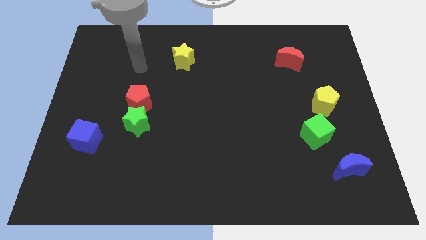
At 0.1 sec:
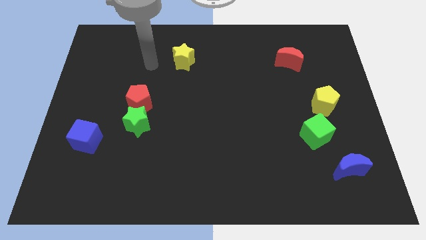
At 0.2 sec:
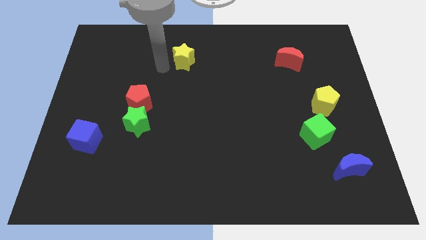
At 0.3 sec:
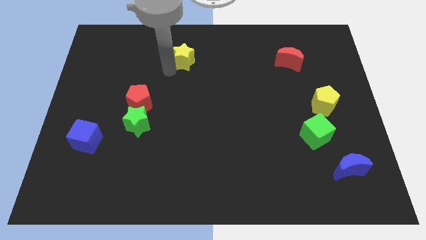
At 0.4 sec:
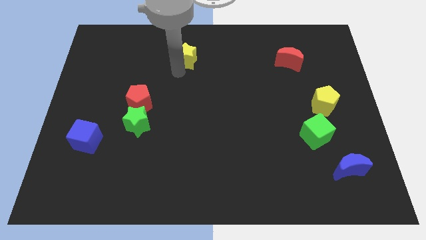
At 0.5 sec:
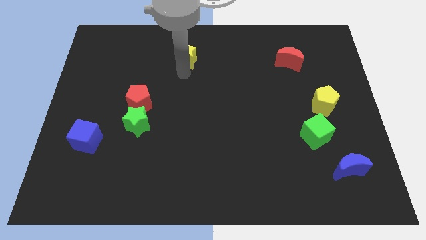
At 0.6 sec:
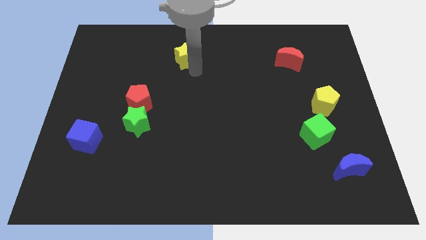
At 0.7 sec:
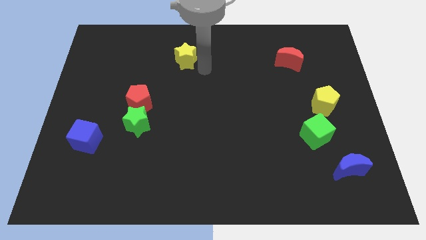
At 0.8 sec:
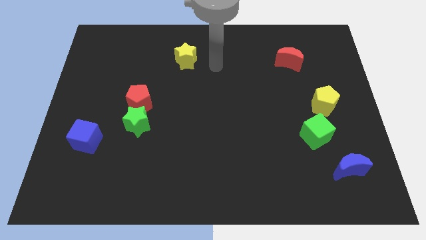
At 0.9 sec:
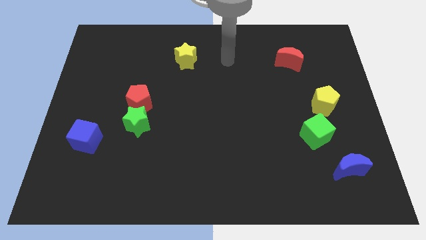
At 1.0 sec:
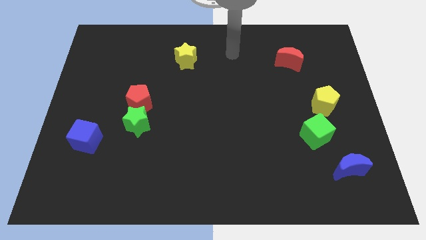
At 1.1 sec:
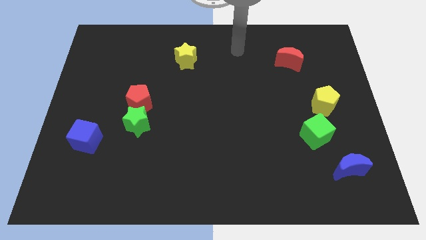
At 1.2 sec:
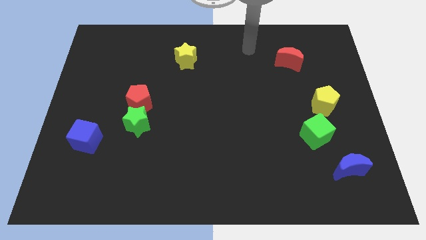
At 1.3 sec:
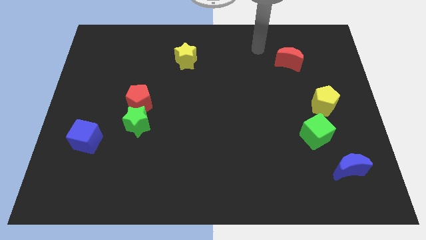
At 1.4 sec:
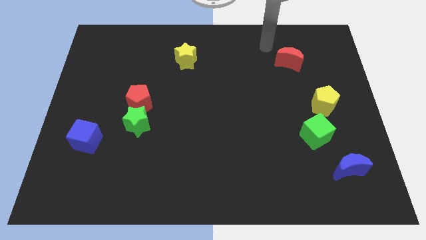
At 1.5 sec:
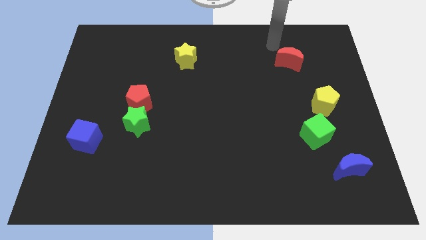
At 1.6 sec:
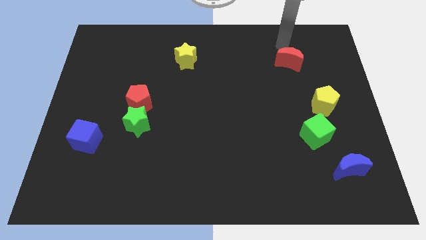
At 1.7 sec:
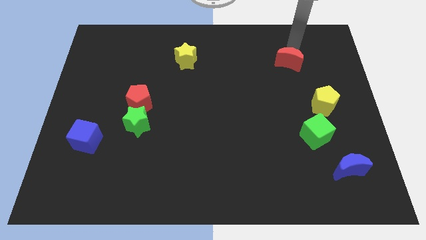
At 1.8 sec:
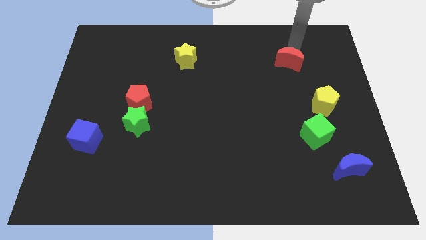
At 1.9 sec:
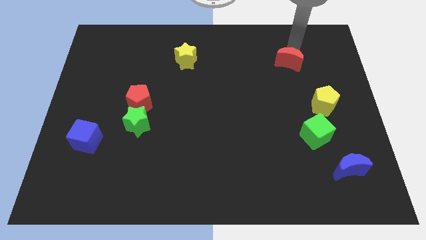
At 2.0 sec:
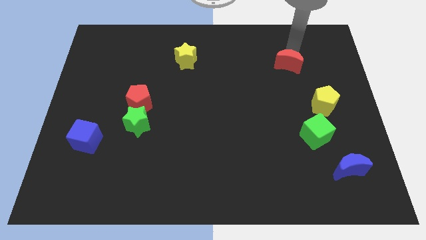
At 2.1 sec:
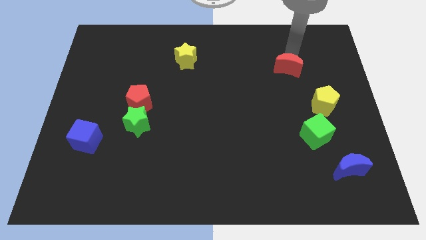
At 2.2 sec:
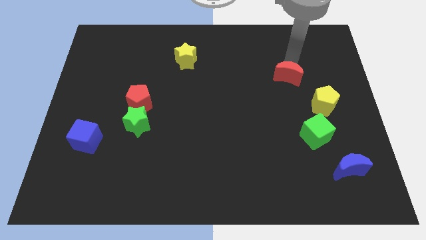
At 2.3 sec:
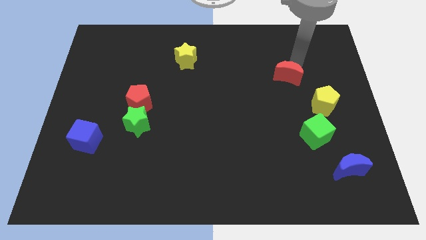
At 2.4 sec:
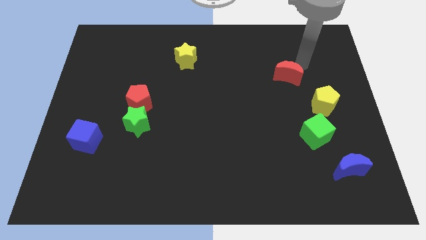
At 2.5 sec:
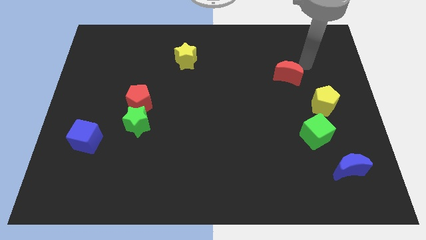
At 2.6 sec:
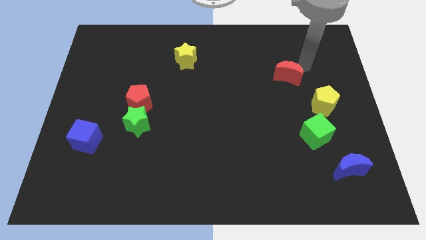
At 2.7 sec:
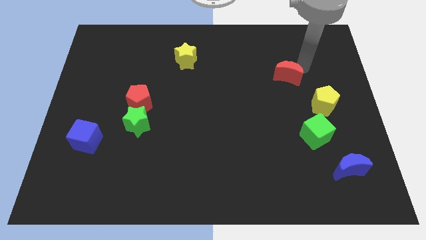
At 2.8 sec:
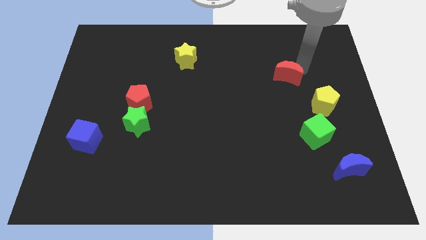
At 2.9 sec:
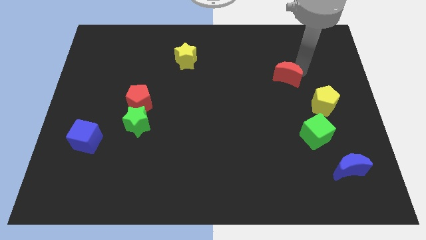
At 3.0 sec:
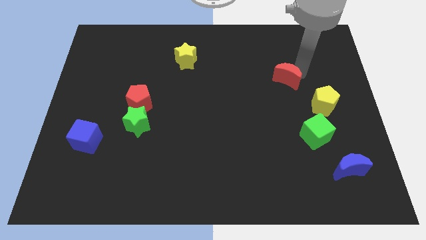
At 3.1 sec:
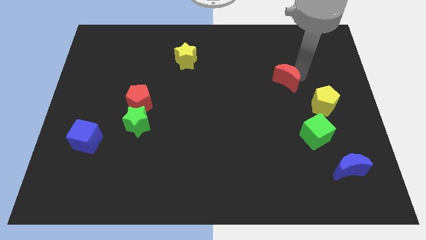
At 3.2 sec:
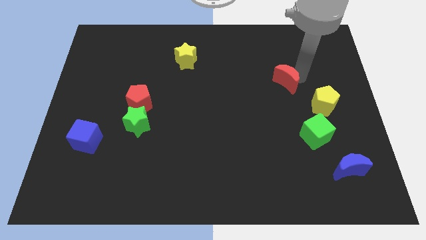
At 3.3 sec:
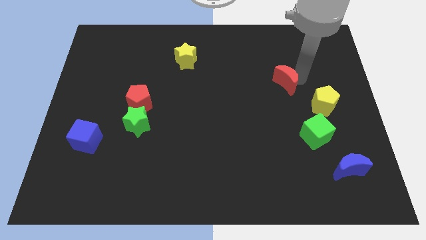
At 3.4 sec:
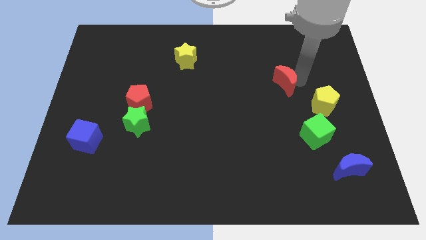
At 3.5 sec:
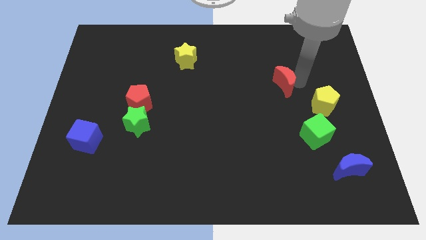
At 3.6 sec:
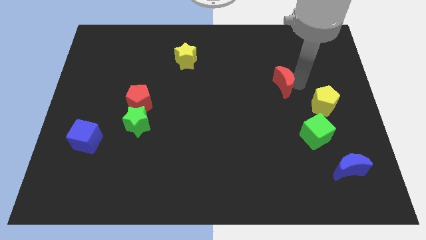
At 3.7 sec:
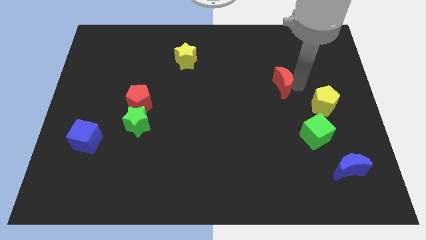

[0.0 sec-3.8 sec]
push the red moon diagonally down and to the left a little

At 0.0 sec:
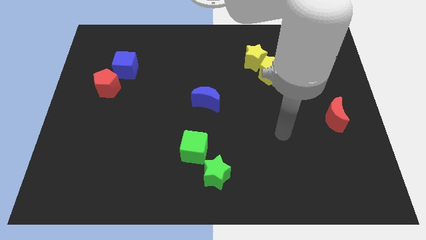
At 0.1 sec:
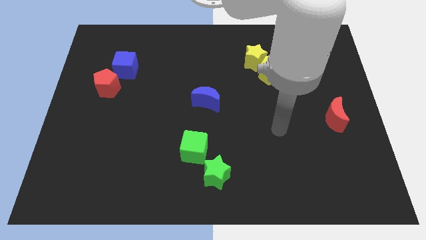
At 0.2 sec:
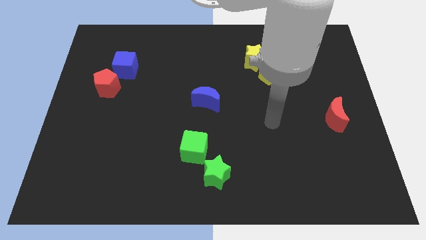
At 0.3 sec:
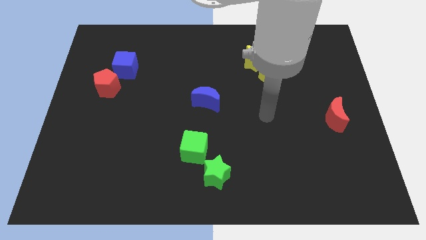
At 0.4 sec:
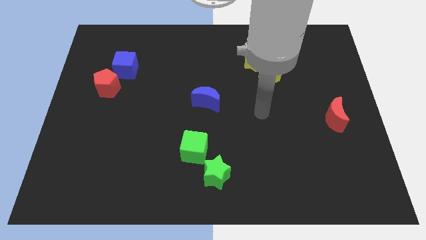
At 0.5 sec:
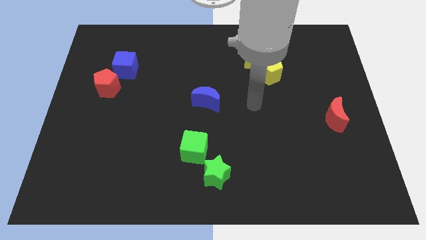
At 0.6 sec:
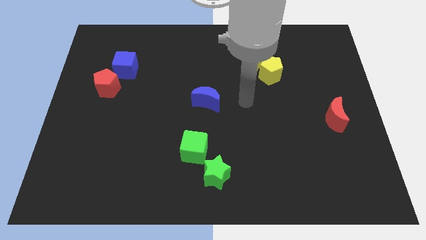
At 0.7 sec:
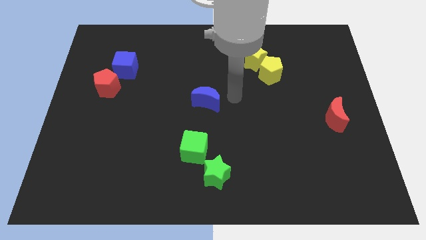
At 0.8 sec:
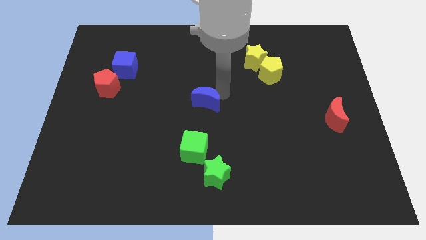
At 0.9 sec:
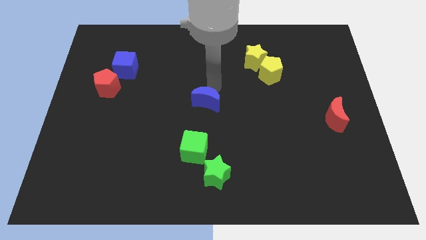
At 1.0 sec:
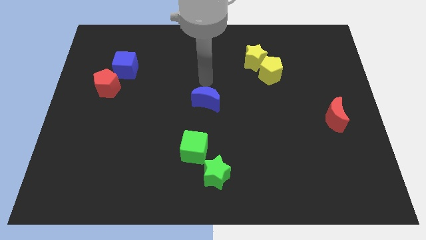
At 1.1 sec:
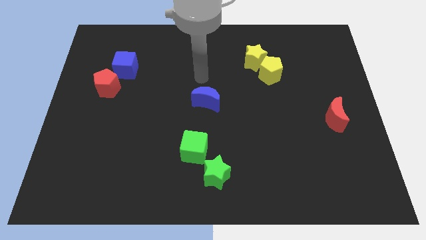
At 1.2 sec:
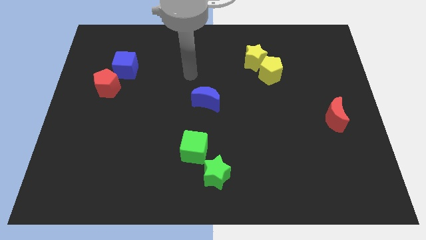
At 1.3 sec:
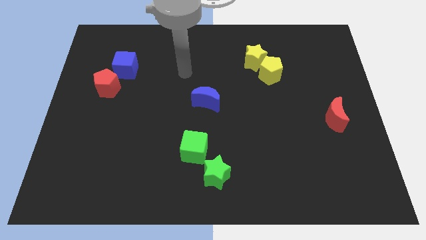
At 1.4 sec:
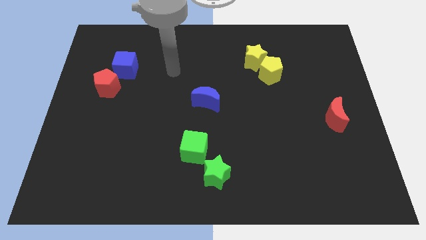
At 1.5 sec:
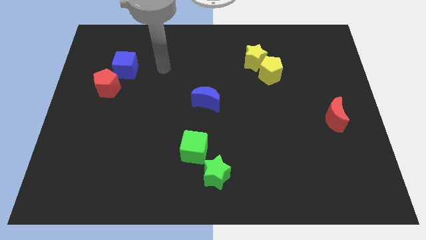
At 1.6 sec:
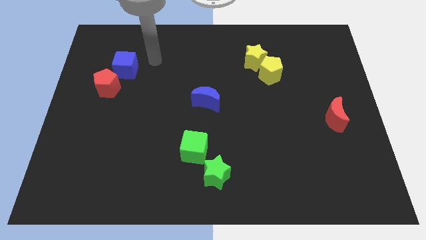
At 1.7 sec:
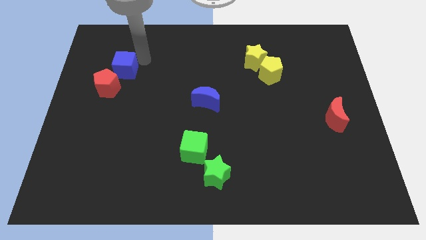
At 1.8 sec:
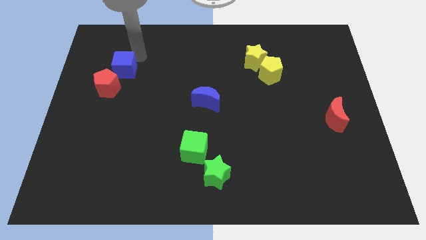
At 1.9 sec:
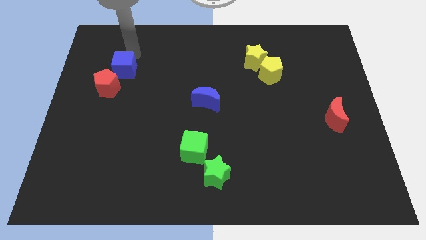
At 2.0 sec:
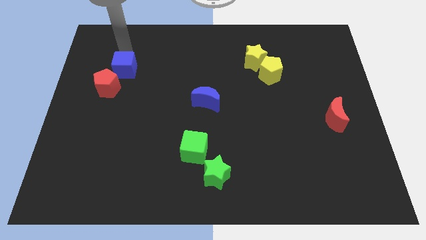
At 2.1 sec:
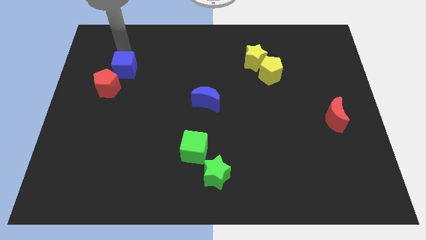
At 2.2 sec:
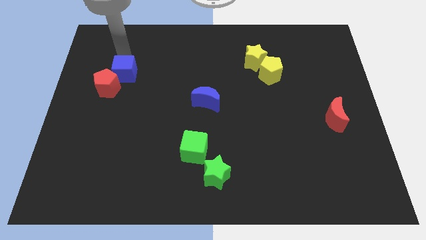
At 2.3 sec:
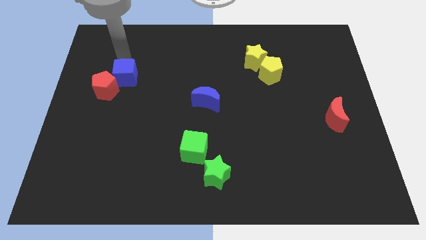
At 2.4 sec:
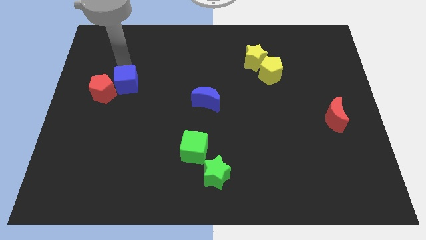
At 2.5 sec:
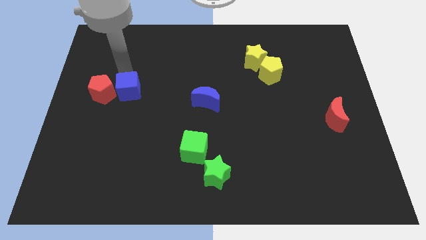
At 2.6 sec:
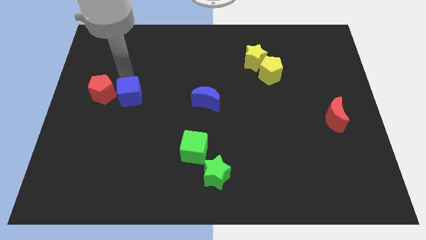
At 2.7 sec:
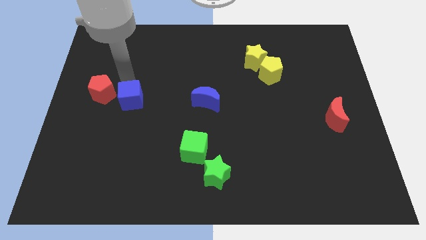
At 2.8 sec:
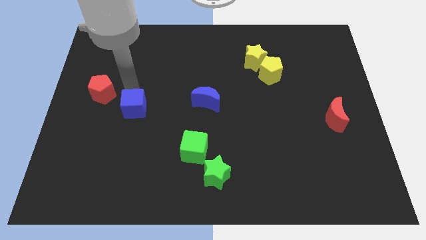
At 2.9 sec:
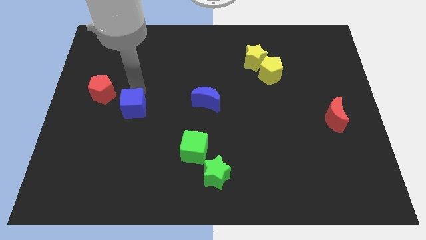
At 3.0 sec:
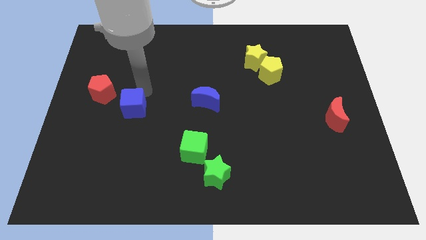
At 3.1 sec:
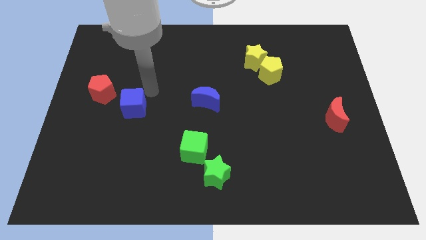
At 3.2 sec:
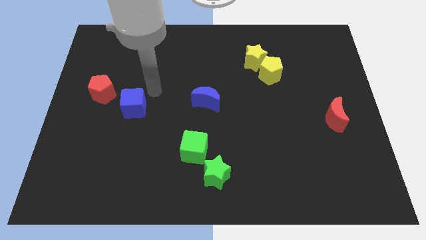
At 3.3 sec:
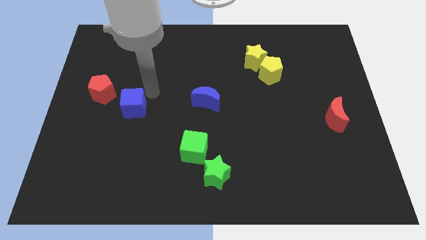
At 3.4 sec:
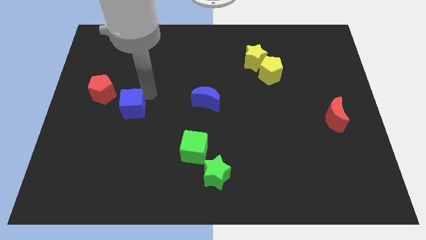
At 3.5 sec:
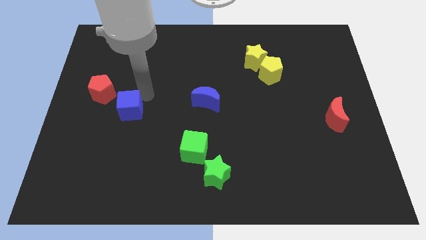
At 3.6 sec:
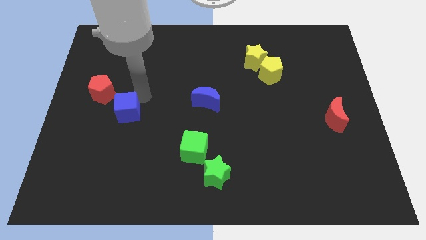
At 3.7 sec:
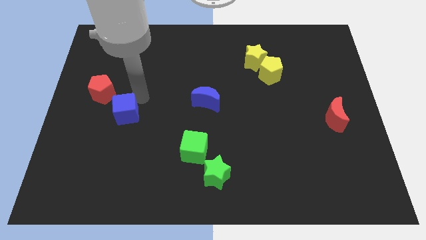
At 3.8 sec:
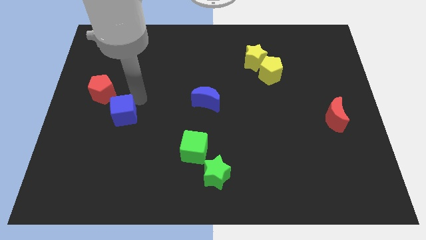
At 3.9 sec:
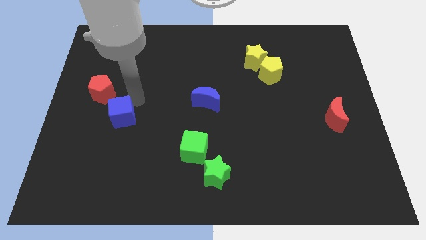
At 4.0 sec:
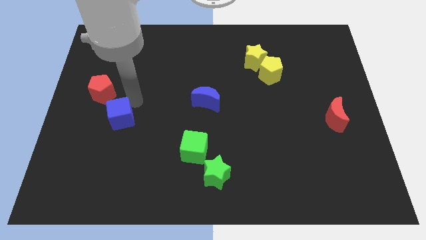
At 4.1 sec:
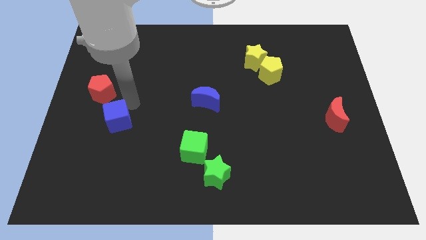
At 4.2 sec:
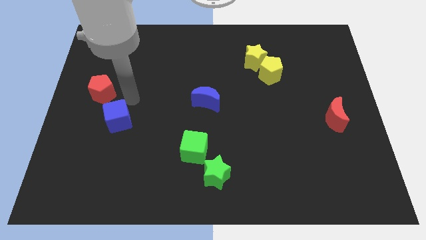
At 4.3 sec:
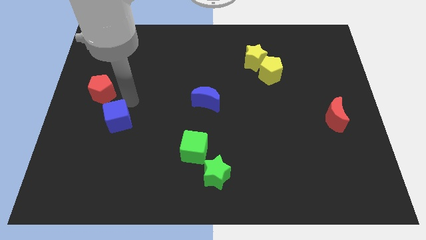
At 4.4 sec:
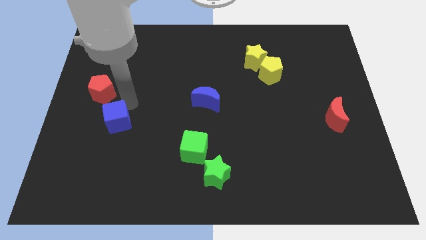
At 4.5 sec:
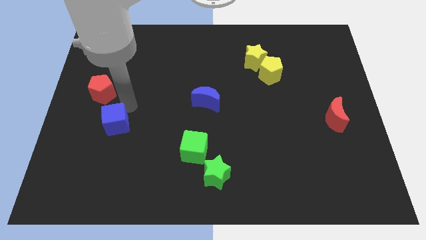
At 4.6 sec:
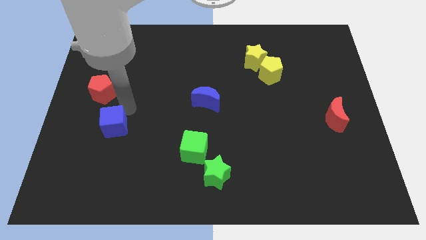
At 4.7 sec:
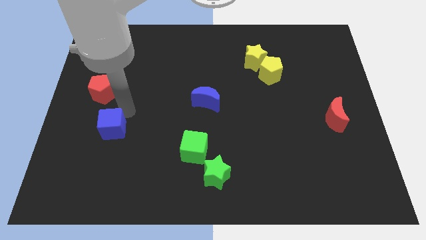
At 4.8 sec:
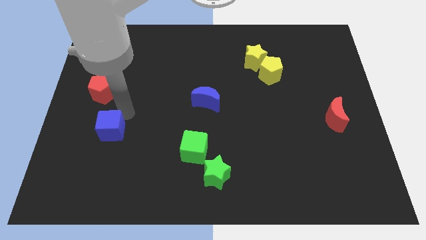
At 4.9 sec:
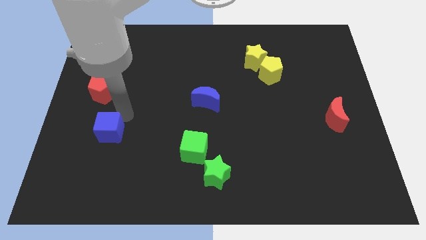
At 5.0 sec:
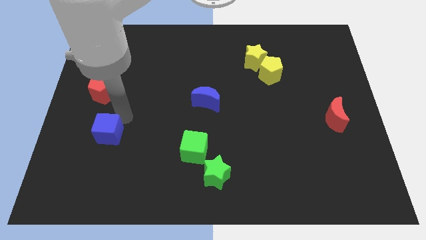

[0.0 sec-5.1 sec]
move the blue cube downwards
